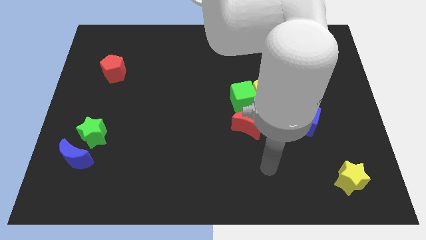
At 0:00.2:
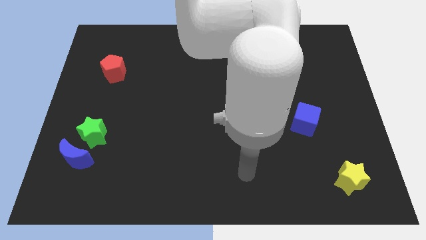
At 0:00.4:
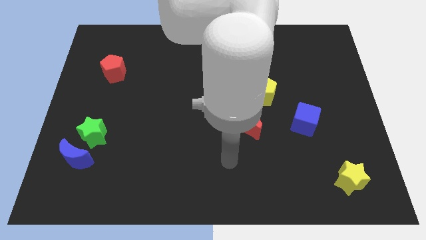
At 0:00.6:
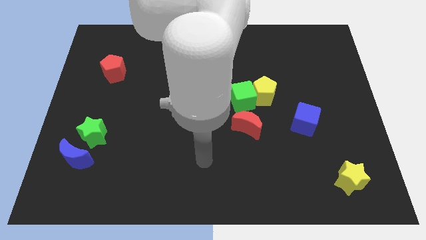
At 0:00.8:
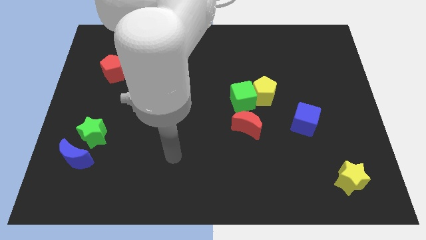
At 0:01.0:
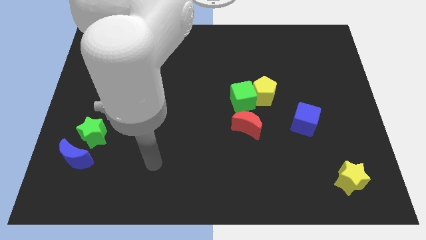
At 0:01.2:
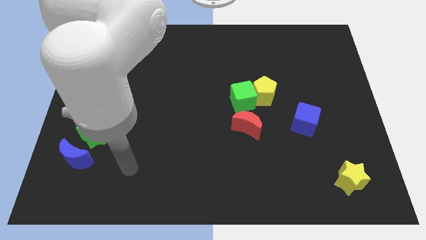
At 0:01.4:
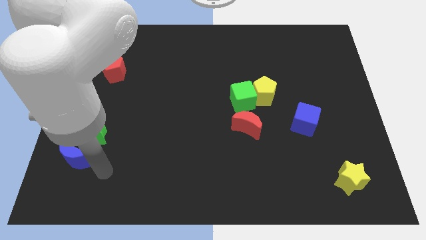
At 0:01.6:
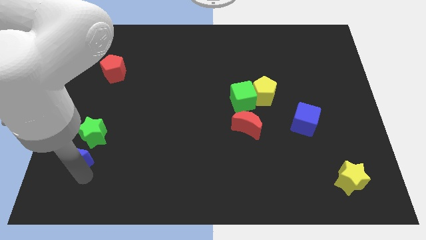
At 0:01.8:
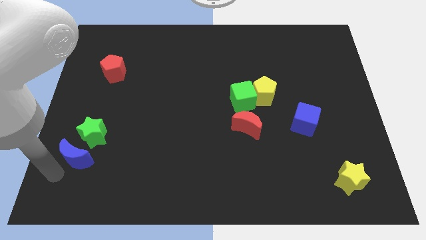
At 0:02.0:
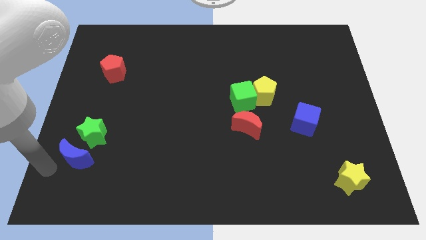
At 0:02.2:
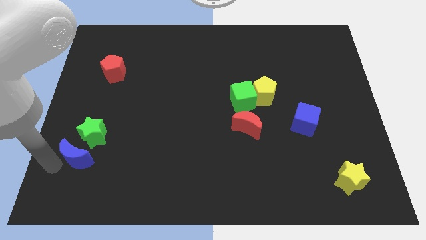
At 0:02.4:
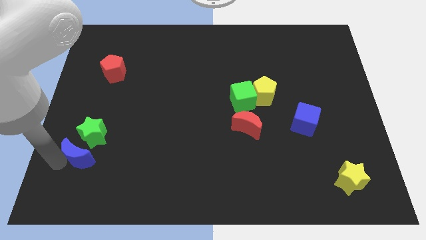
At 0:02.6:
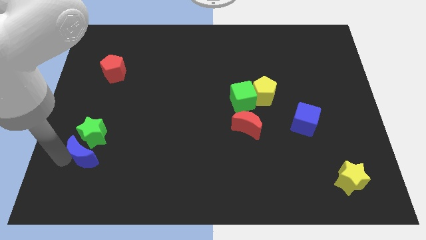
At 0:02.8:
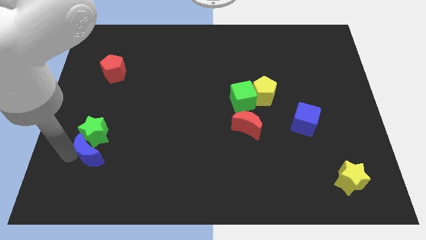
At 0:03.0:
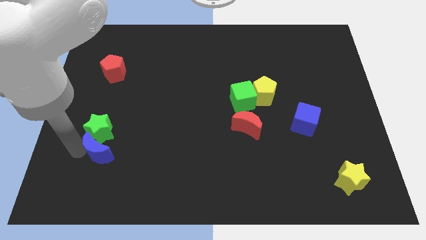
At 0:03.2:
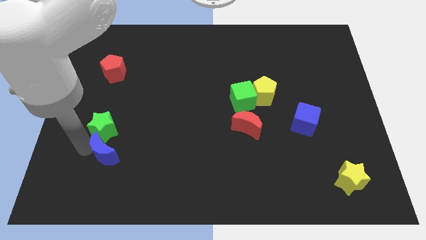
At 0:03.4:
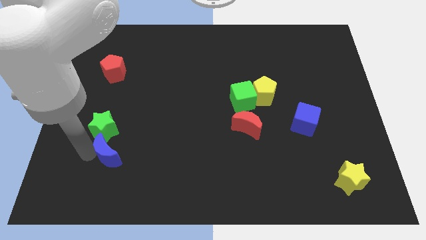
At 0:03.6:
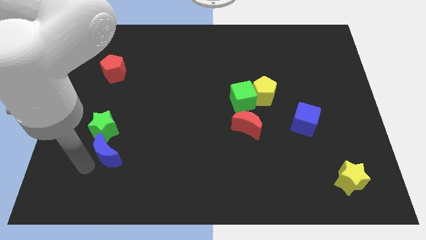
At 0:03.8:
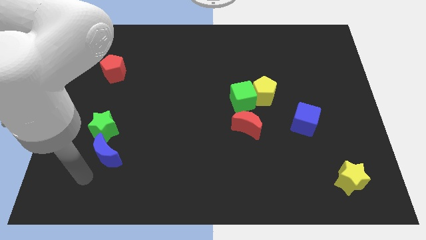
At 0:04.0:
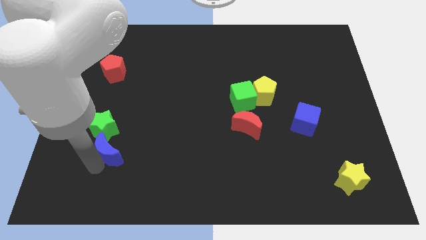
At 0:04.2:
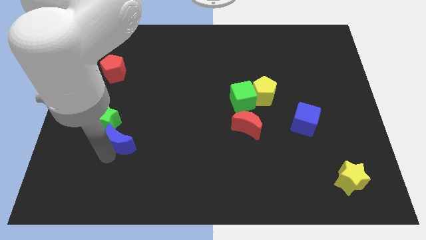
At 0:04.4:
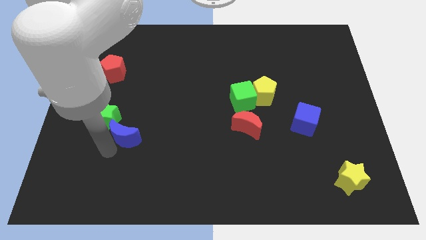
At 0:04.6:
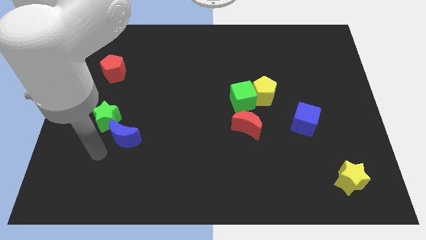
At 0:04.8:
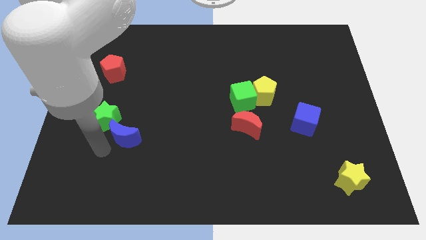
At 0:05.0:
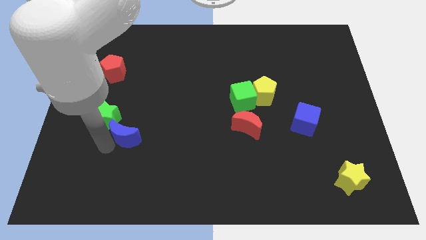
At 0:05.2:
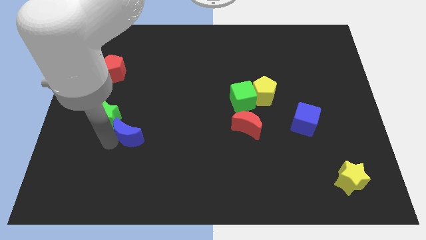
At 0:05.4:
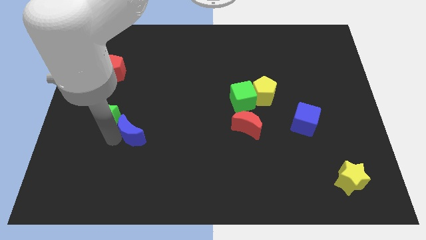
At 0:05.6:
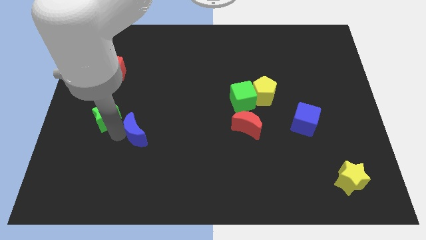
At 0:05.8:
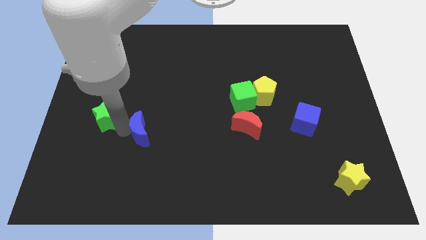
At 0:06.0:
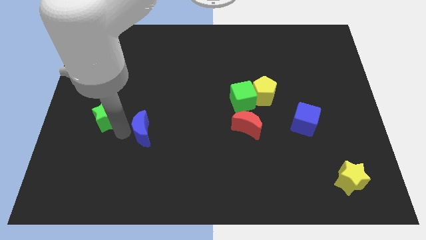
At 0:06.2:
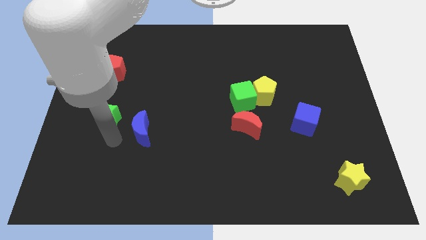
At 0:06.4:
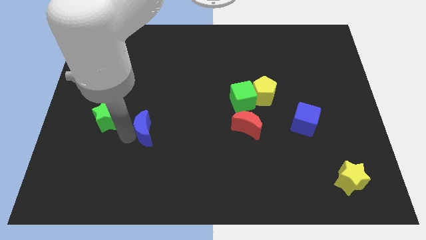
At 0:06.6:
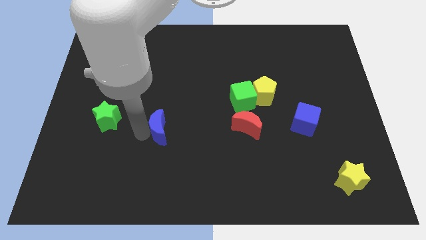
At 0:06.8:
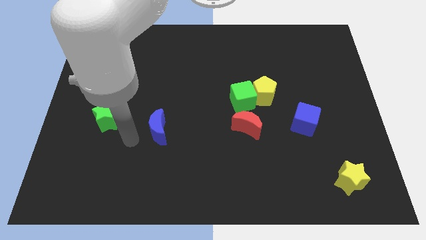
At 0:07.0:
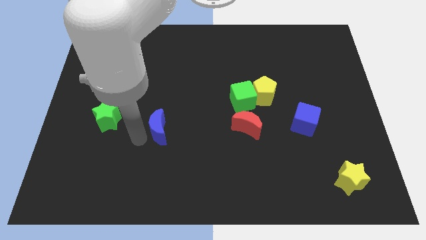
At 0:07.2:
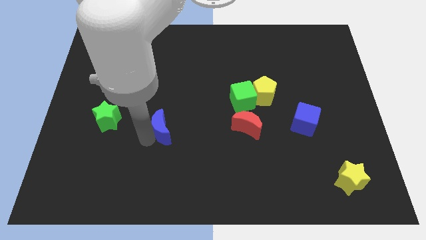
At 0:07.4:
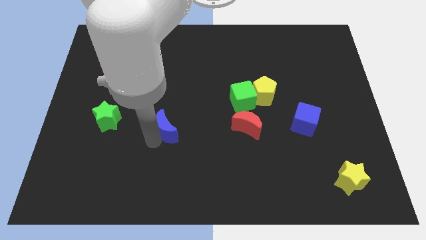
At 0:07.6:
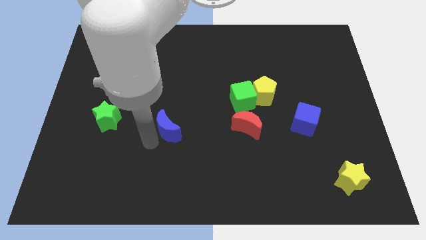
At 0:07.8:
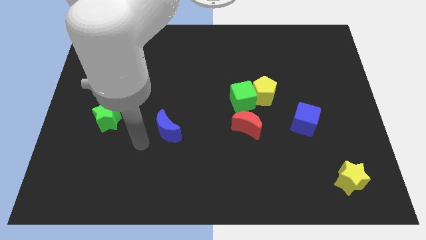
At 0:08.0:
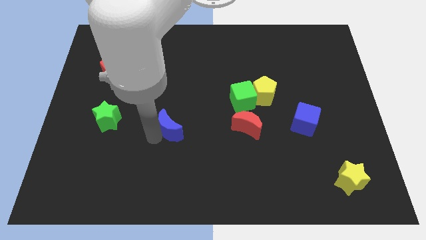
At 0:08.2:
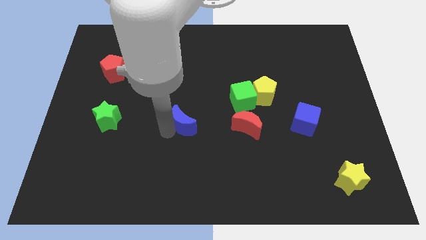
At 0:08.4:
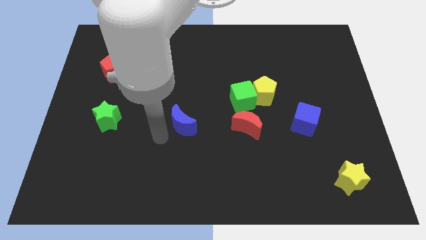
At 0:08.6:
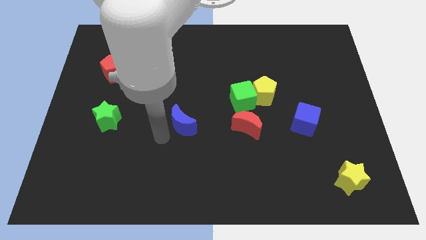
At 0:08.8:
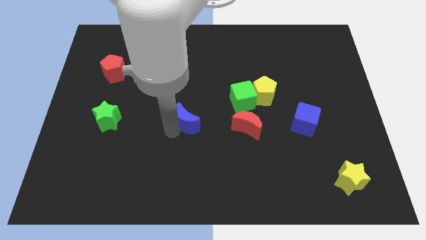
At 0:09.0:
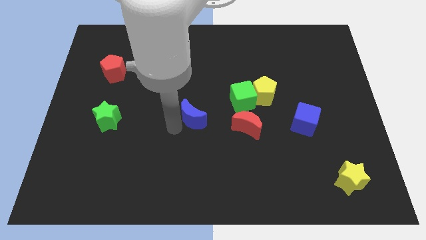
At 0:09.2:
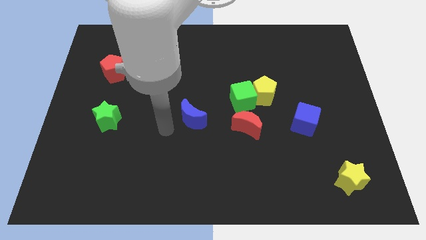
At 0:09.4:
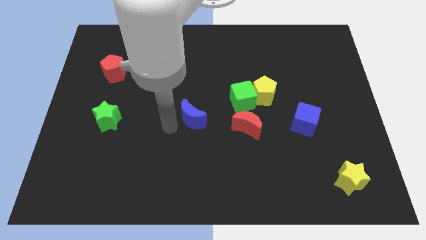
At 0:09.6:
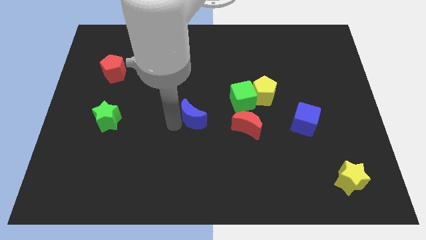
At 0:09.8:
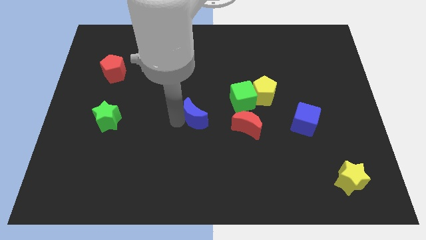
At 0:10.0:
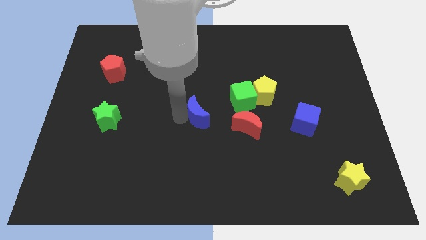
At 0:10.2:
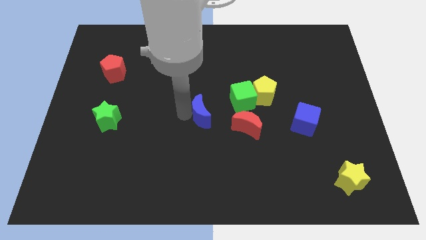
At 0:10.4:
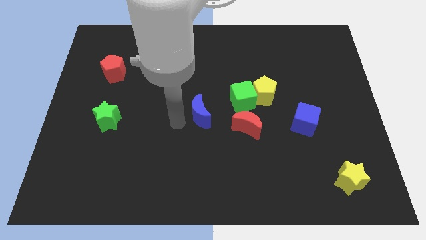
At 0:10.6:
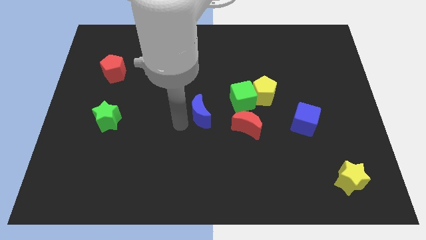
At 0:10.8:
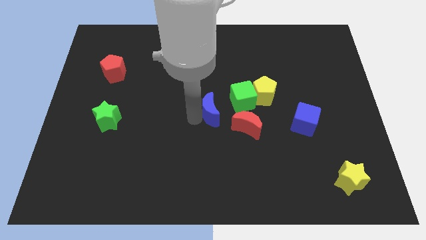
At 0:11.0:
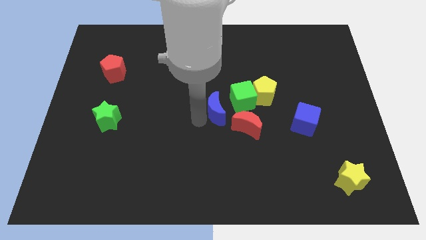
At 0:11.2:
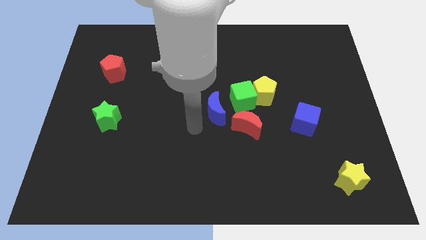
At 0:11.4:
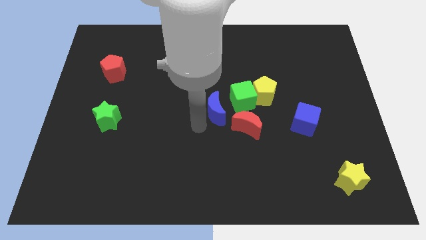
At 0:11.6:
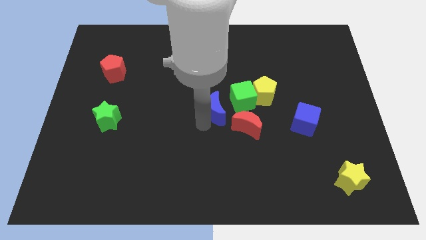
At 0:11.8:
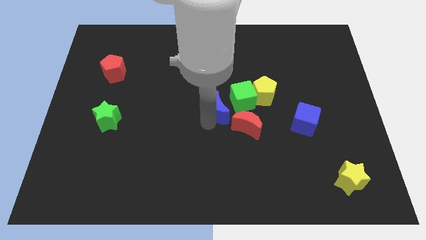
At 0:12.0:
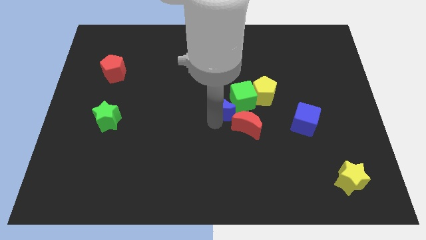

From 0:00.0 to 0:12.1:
slide the blue moon to the green cube

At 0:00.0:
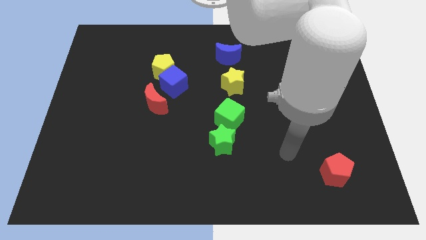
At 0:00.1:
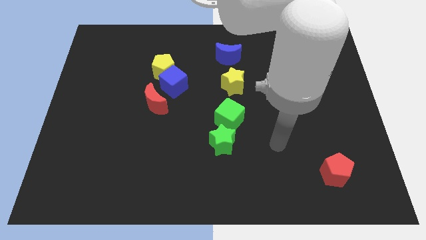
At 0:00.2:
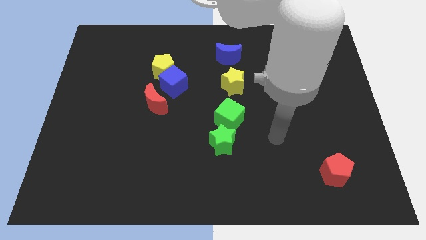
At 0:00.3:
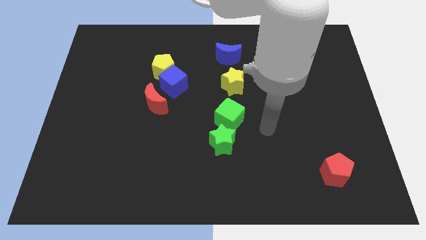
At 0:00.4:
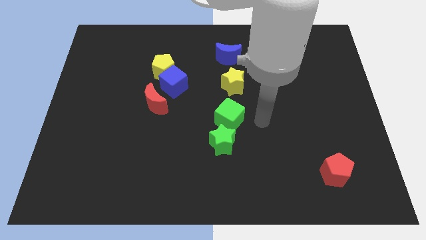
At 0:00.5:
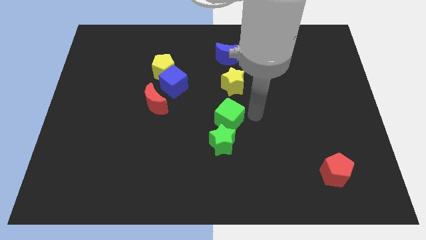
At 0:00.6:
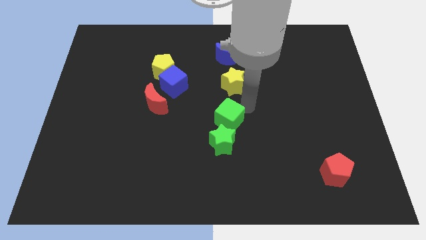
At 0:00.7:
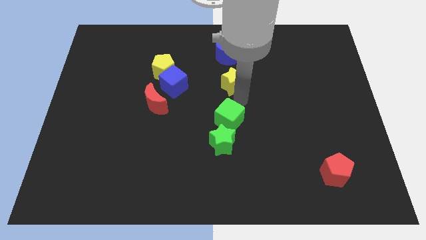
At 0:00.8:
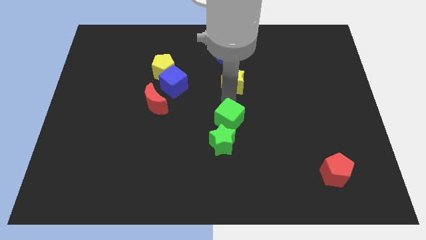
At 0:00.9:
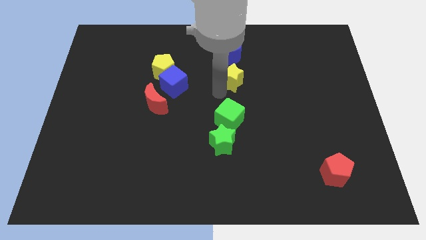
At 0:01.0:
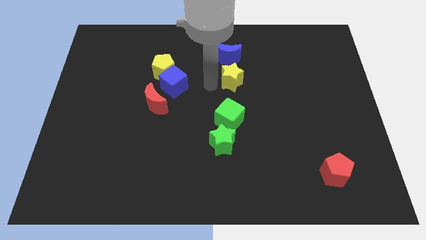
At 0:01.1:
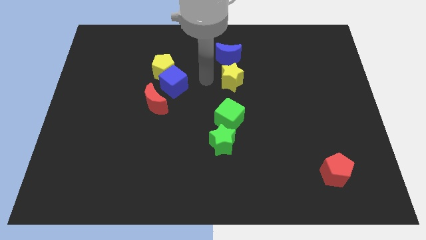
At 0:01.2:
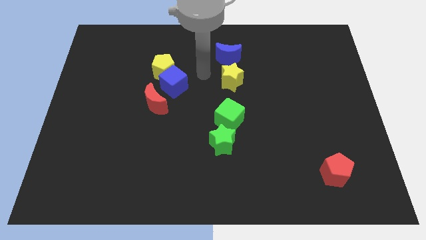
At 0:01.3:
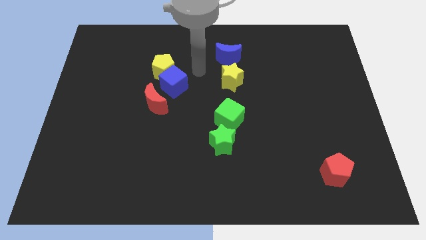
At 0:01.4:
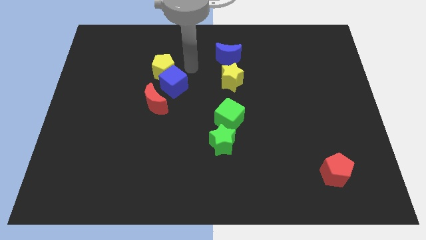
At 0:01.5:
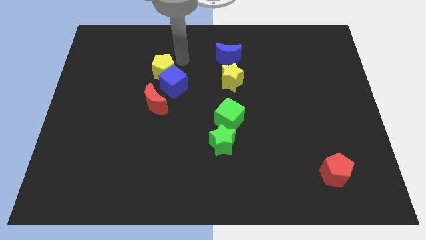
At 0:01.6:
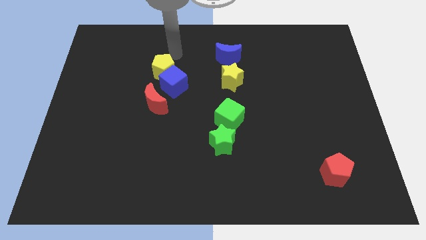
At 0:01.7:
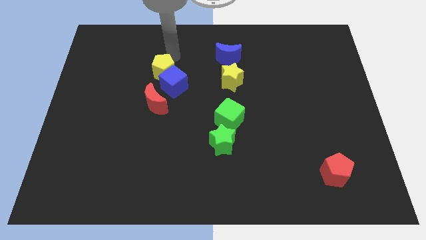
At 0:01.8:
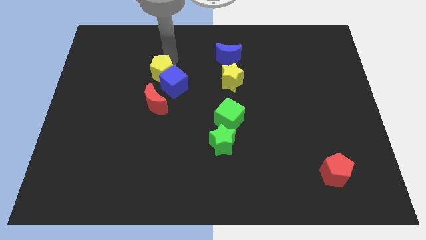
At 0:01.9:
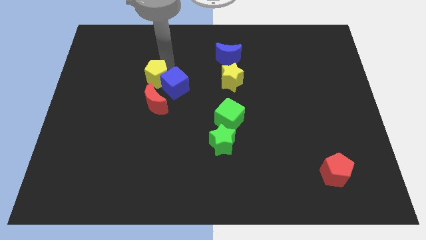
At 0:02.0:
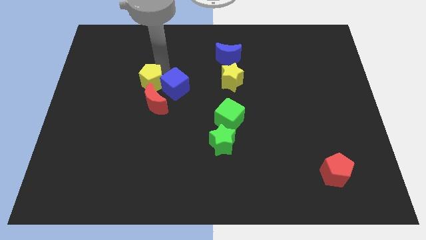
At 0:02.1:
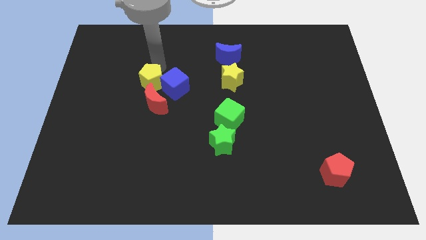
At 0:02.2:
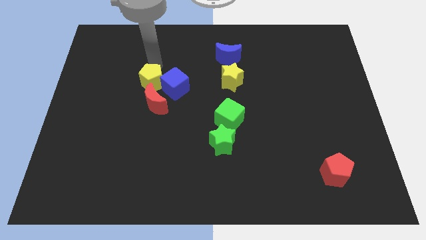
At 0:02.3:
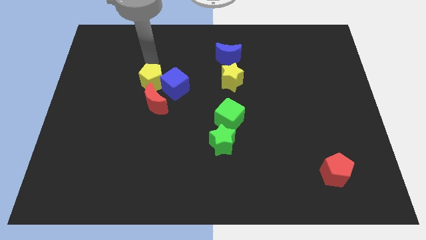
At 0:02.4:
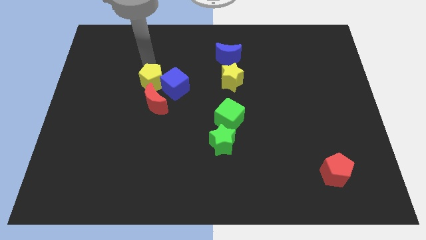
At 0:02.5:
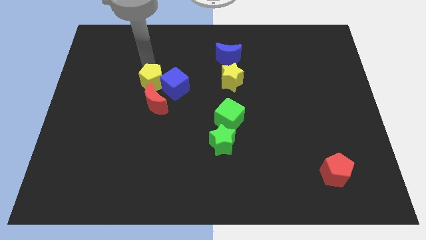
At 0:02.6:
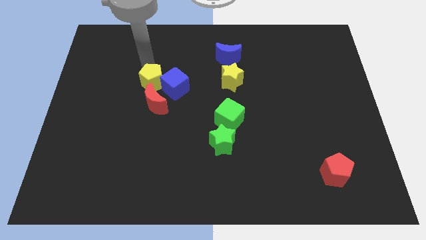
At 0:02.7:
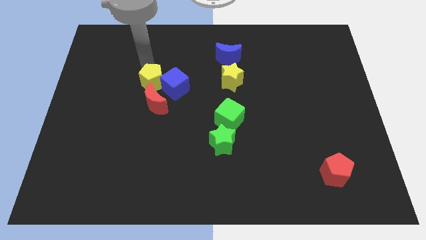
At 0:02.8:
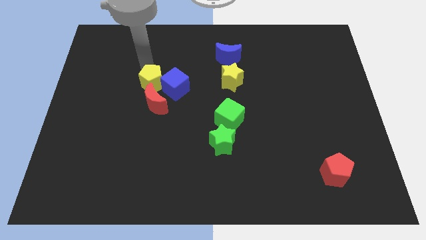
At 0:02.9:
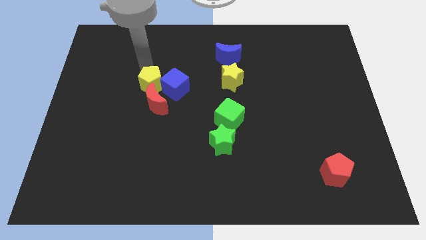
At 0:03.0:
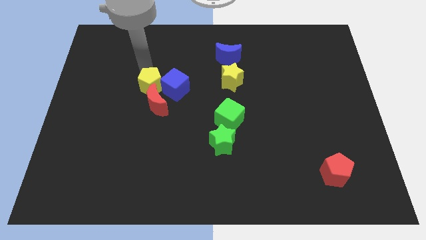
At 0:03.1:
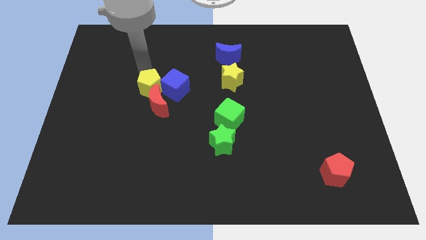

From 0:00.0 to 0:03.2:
slide the yellow pentagon close to the red moon
